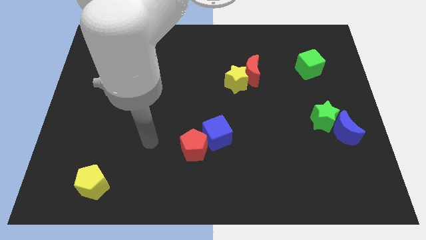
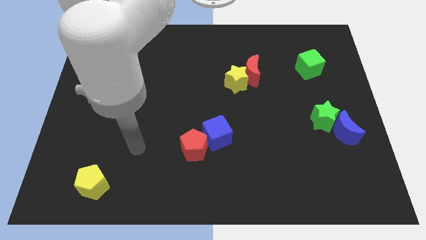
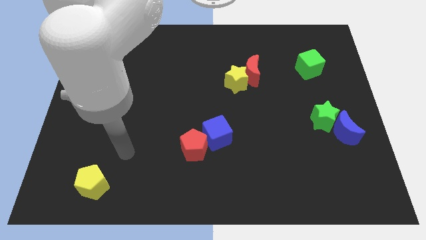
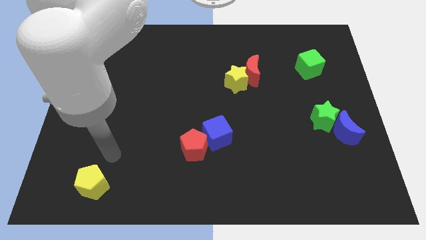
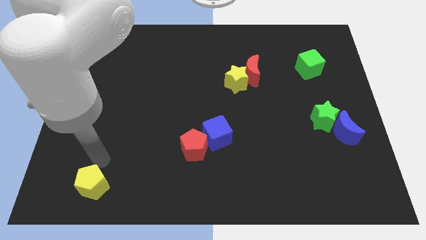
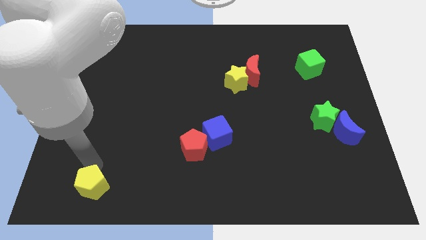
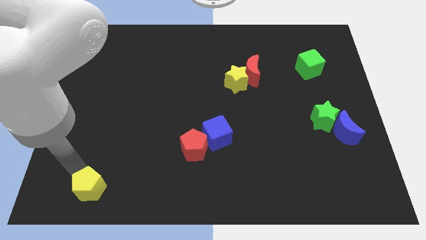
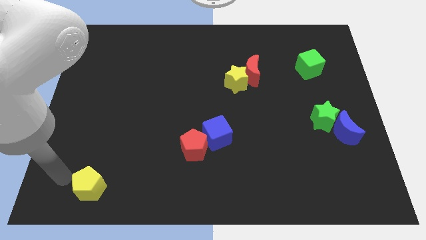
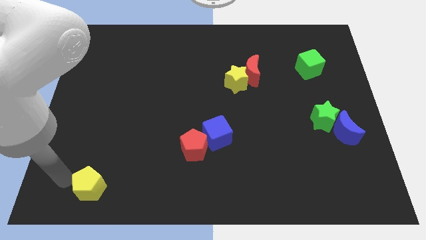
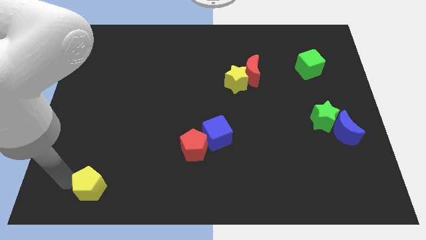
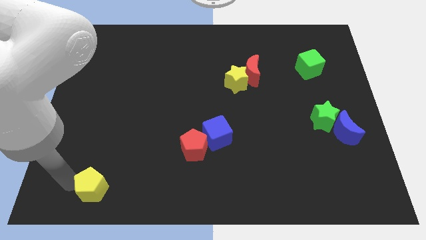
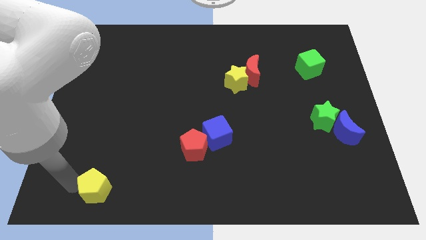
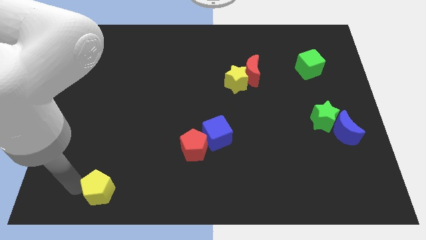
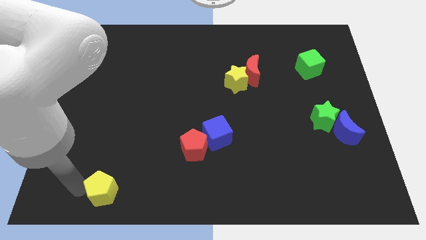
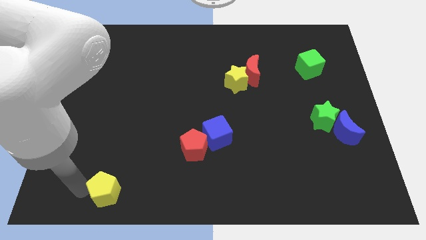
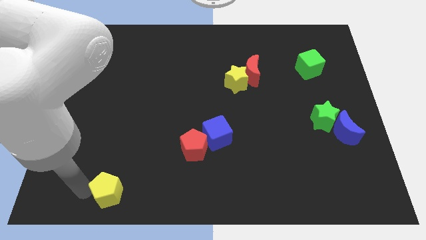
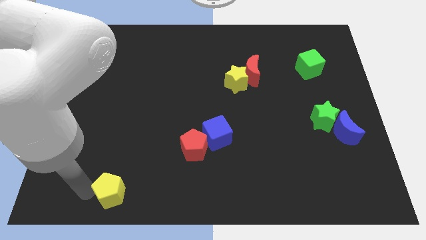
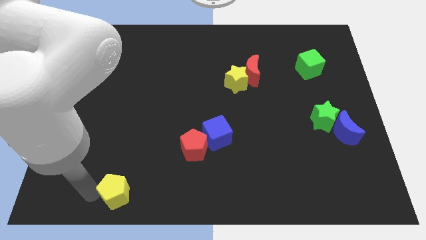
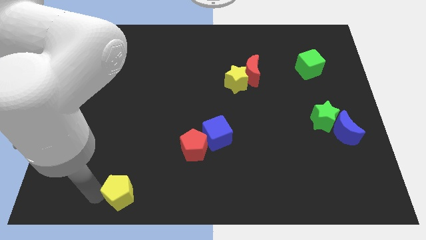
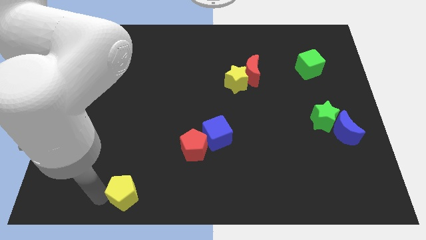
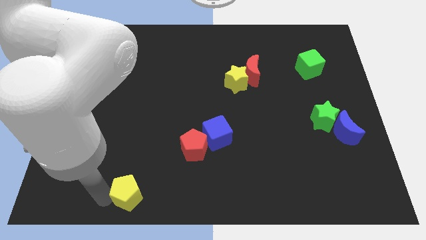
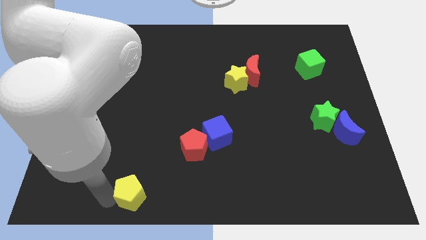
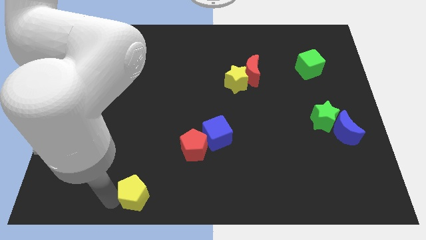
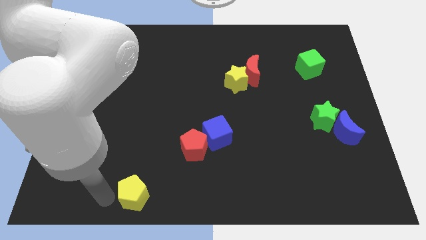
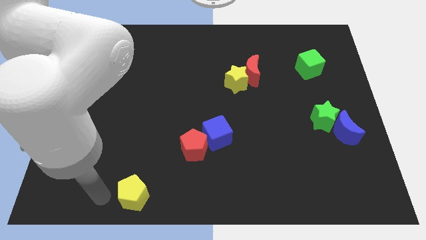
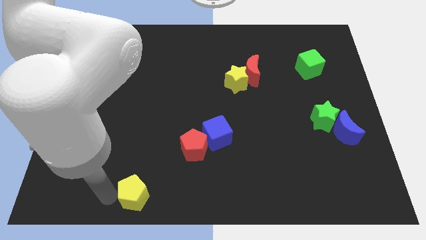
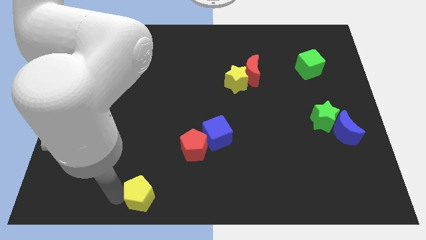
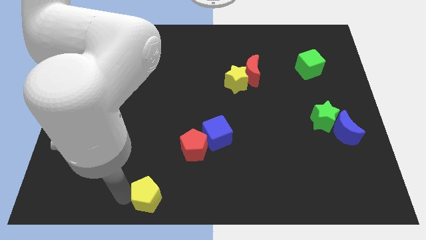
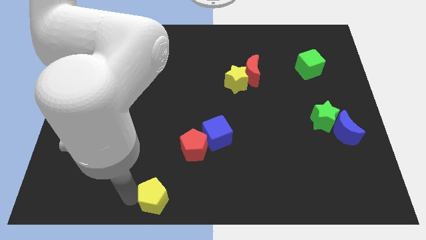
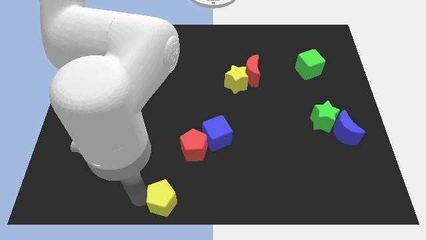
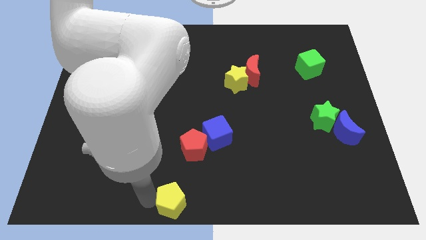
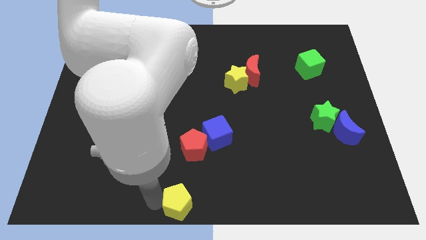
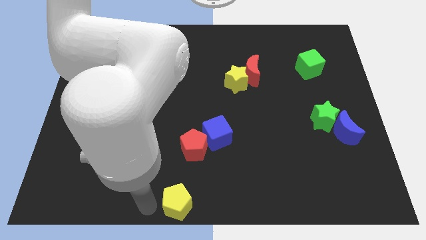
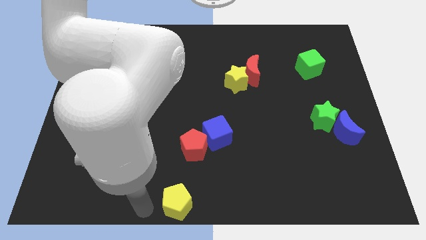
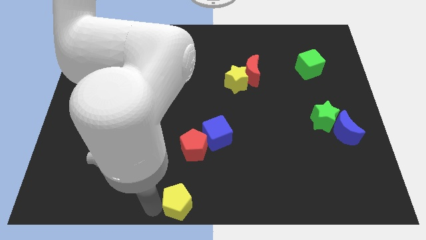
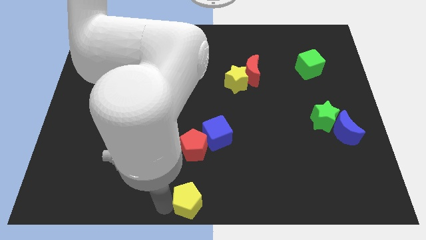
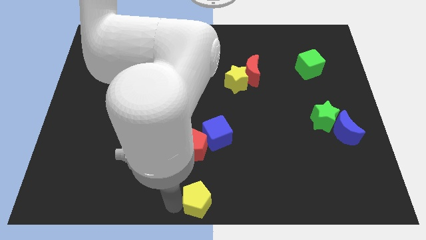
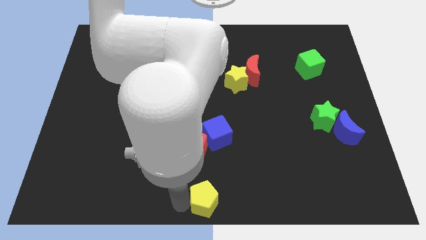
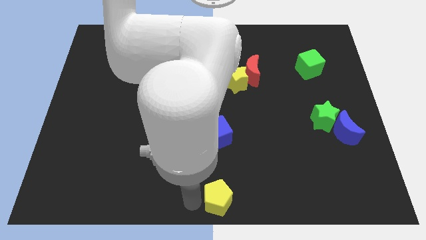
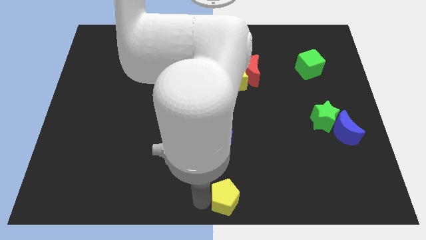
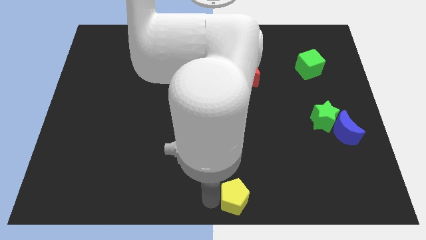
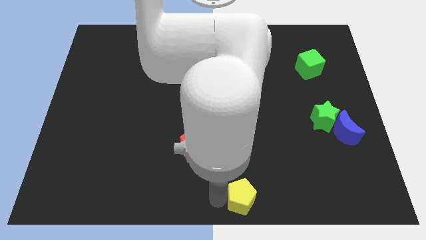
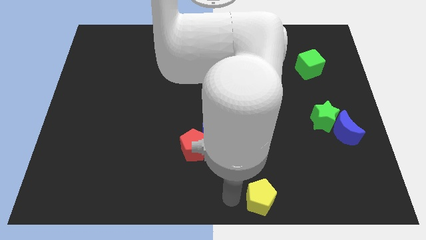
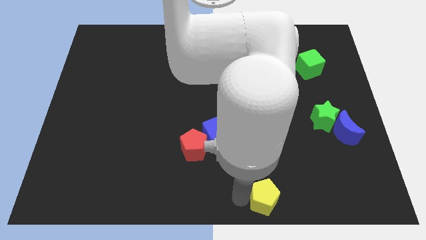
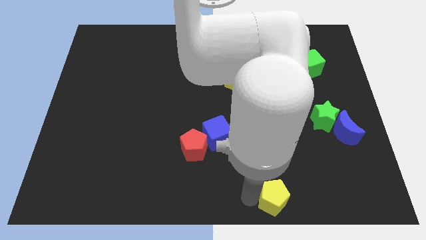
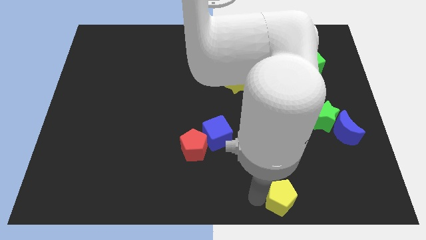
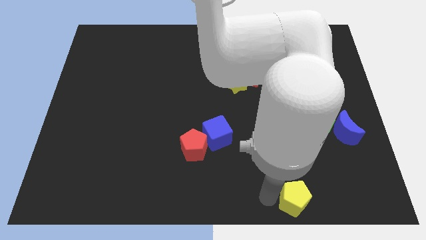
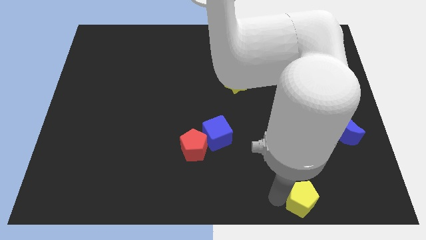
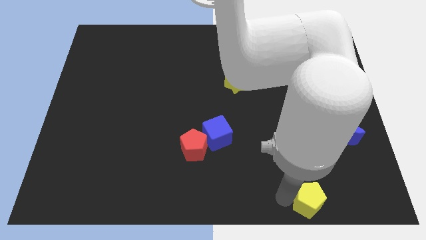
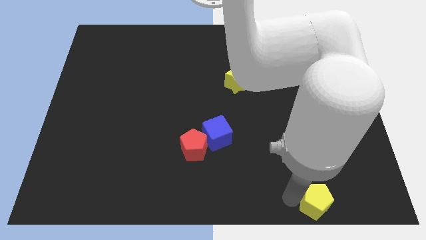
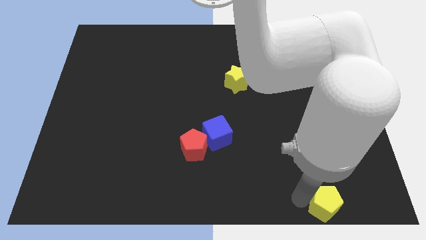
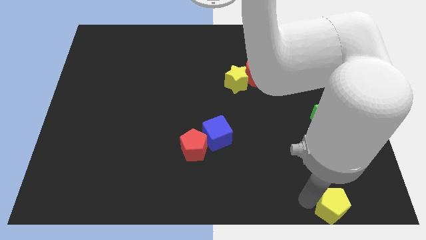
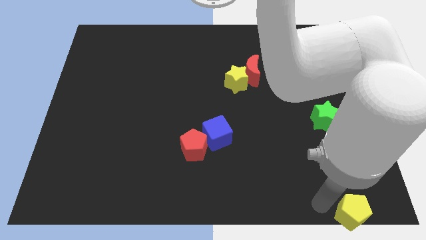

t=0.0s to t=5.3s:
move the yellow pentagon to the bottom right of the board

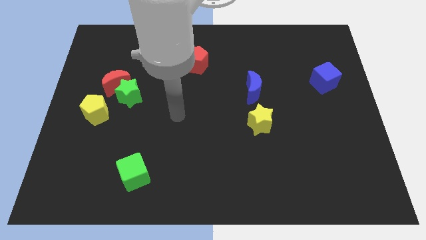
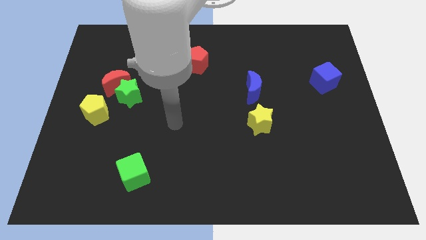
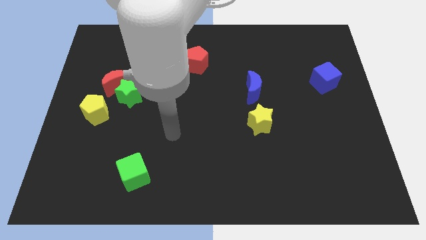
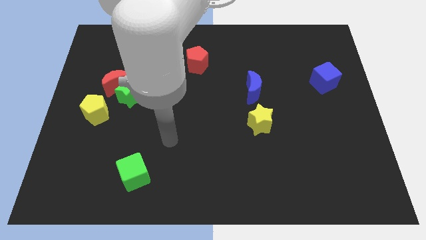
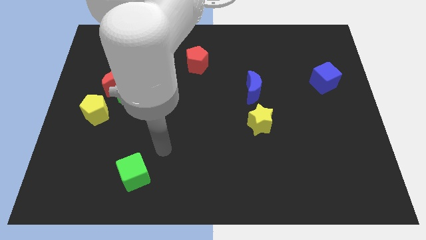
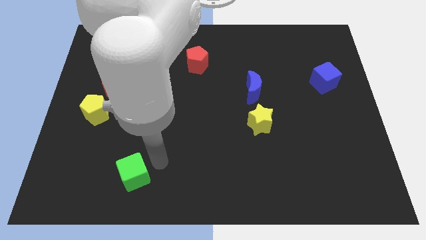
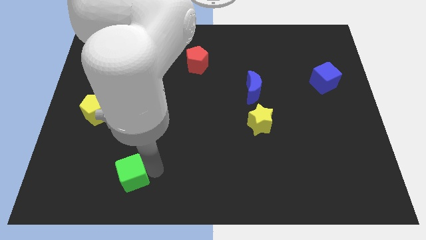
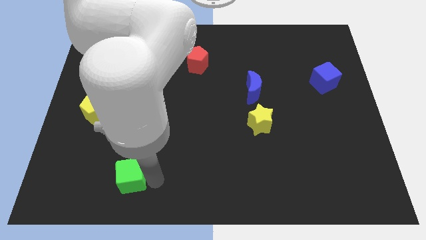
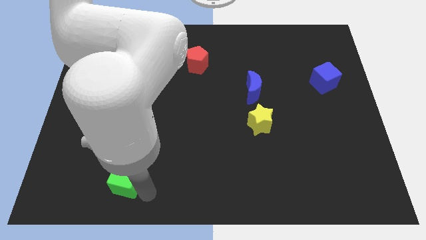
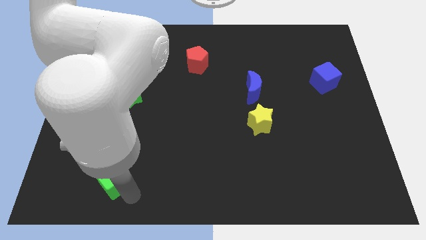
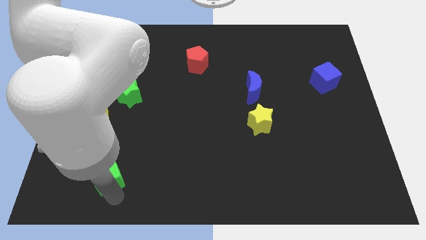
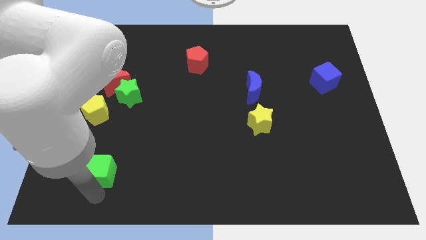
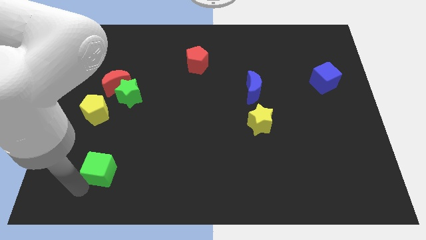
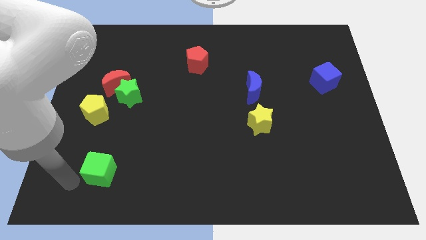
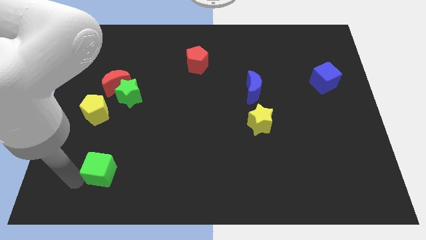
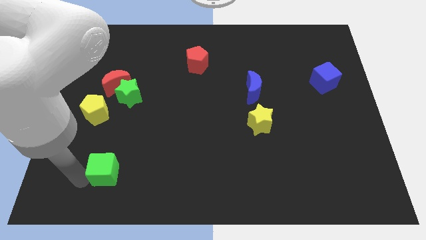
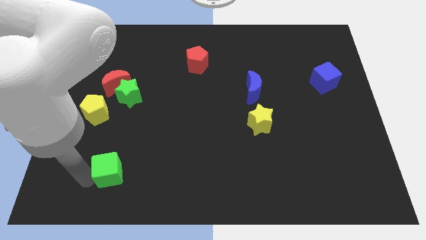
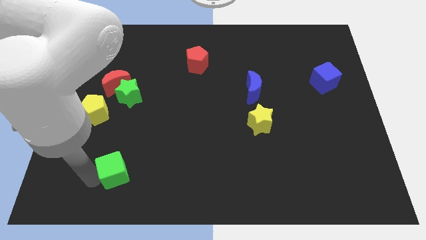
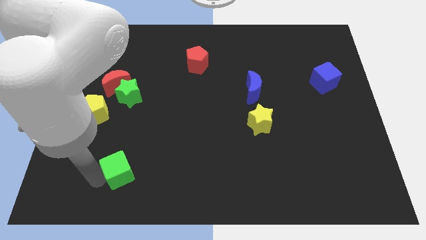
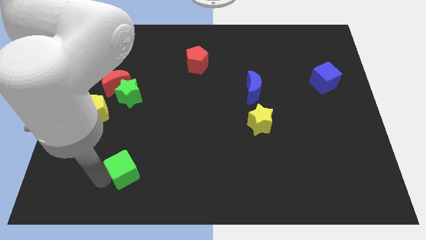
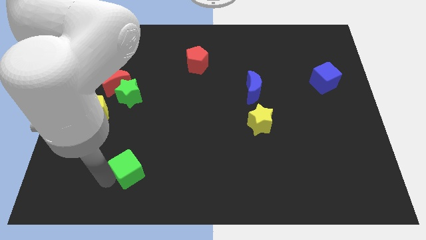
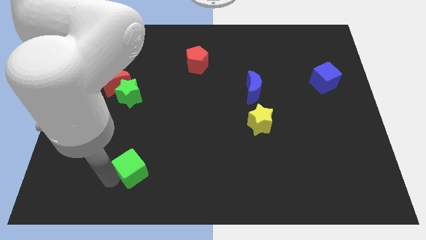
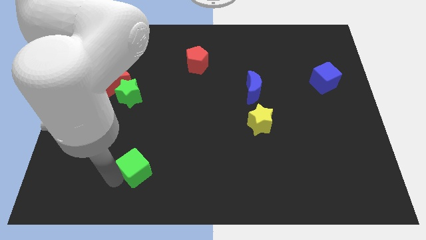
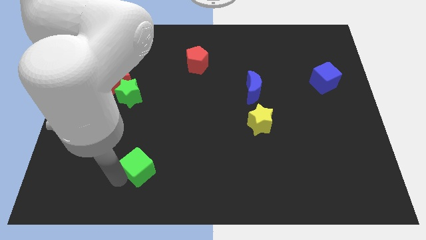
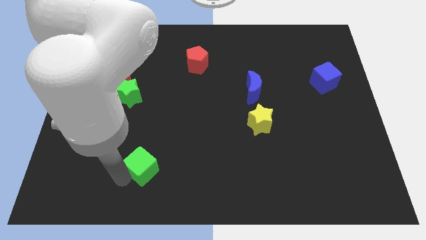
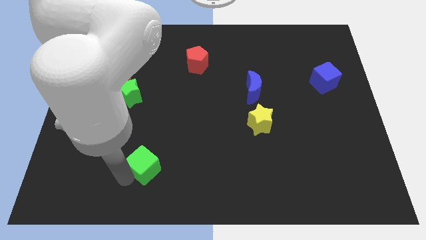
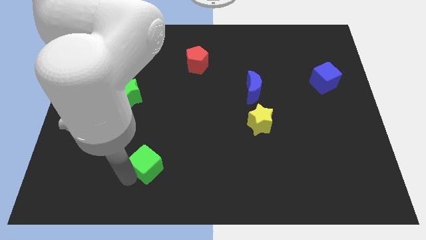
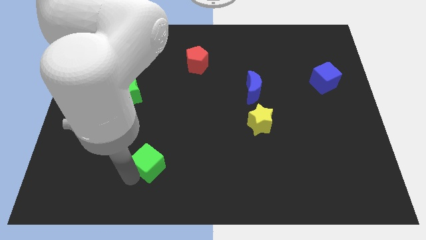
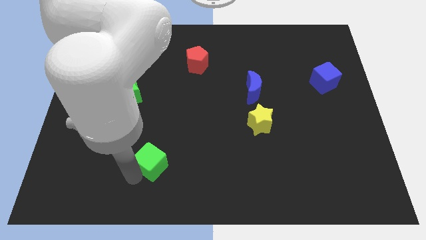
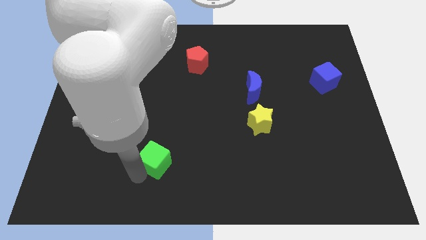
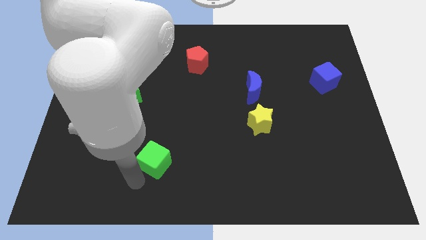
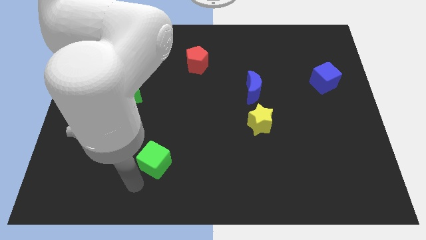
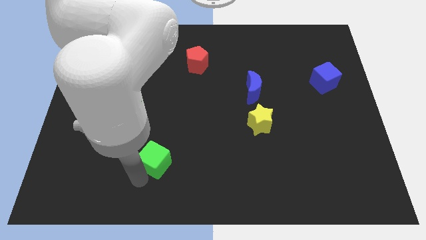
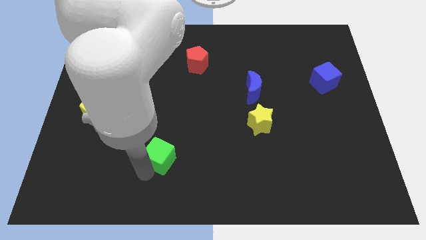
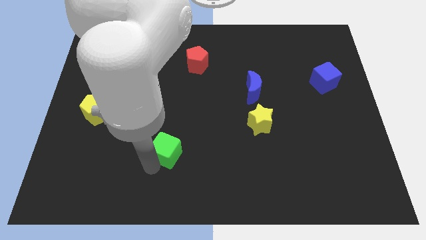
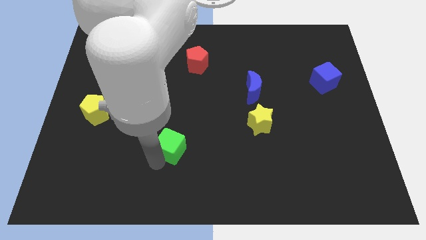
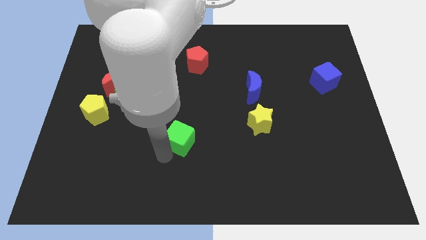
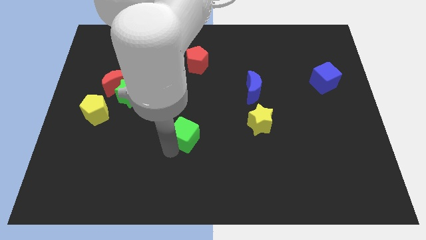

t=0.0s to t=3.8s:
slide the green cube to the middle
